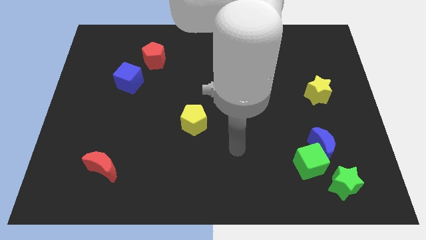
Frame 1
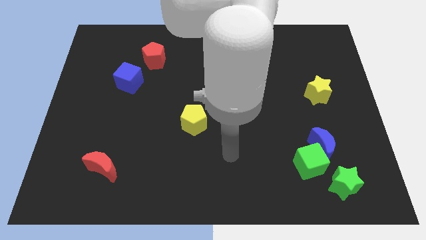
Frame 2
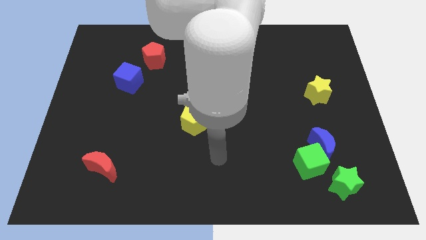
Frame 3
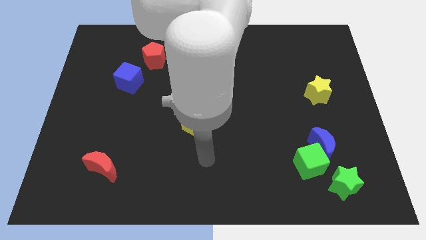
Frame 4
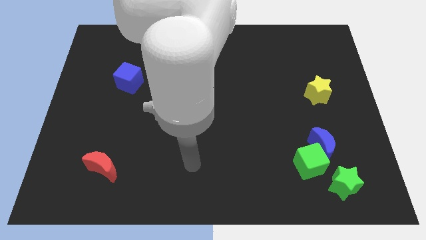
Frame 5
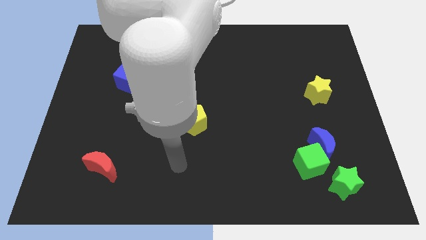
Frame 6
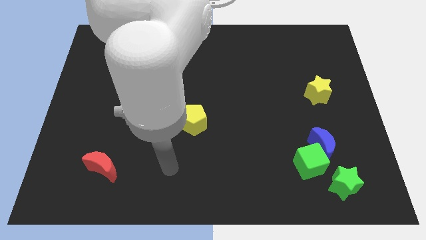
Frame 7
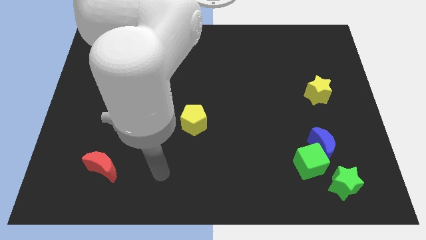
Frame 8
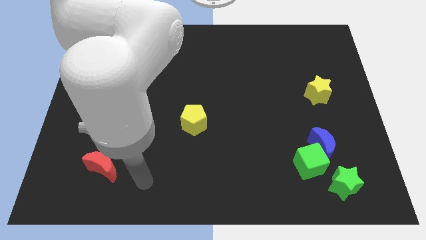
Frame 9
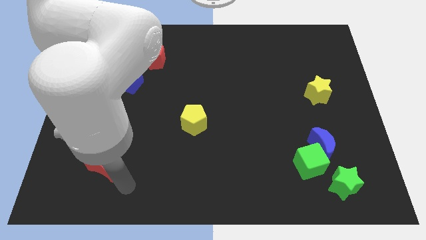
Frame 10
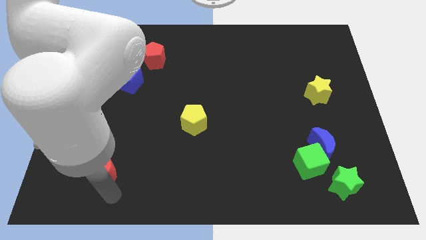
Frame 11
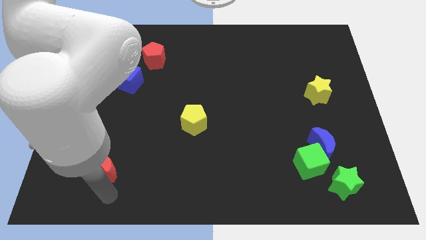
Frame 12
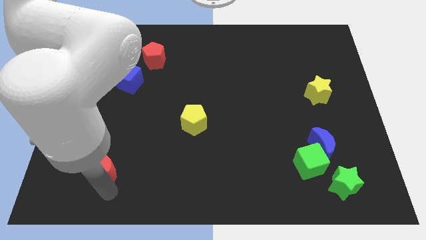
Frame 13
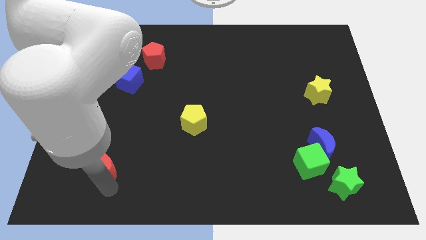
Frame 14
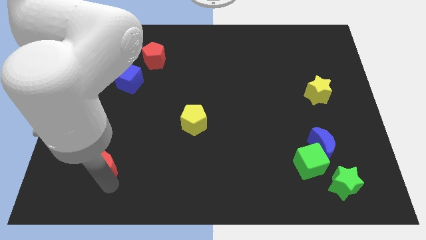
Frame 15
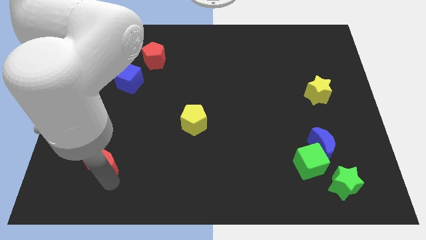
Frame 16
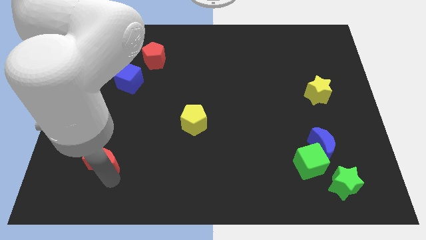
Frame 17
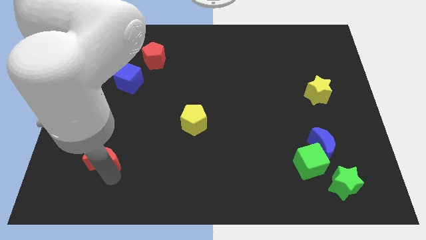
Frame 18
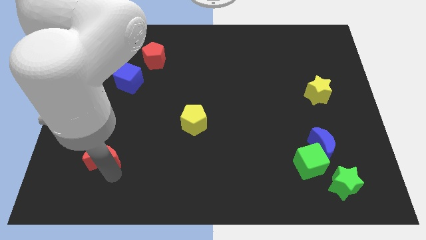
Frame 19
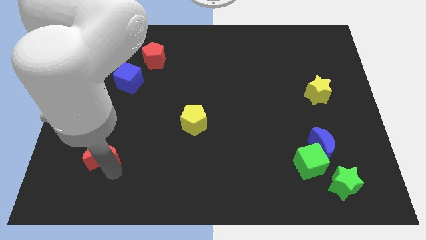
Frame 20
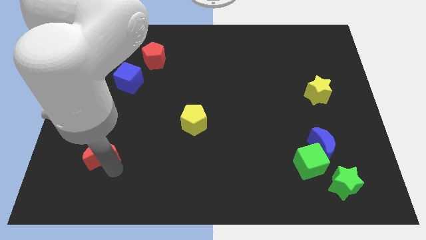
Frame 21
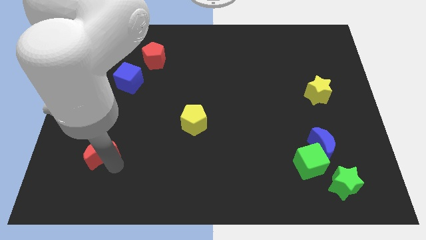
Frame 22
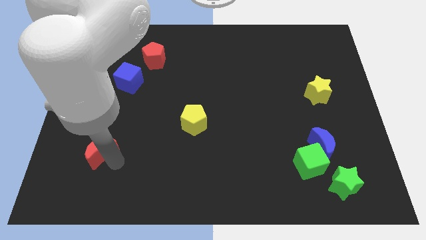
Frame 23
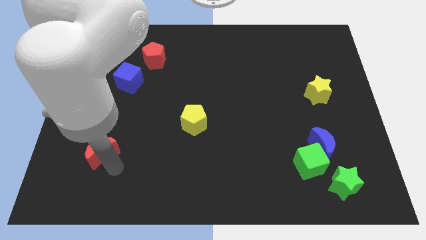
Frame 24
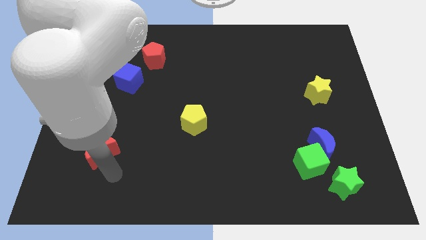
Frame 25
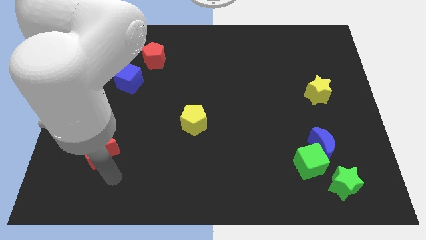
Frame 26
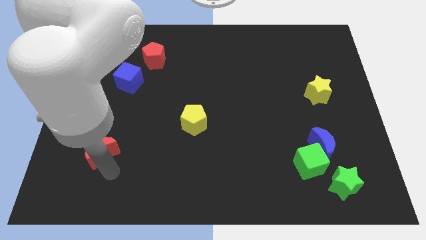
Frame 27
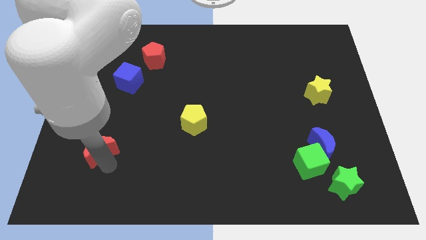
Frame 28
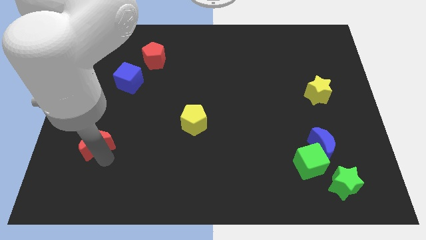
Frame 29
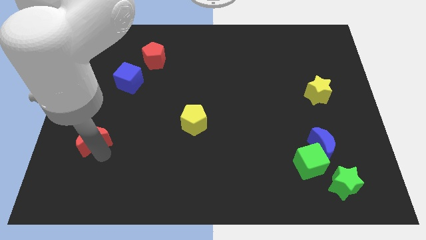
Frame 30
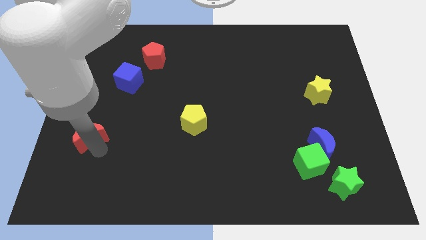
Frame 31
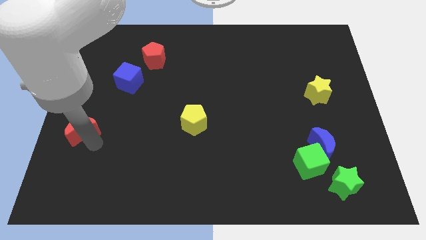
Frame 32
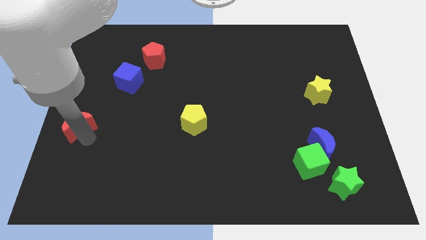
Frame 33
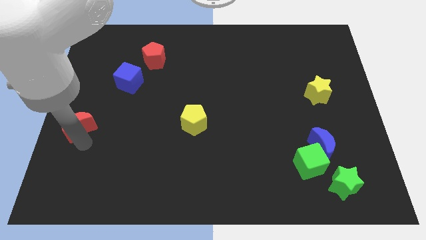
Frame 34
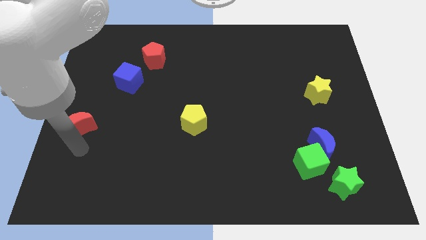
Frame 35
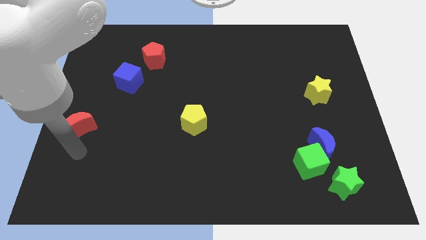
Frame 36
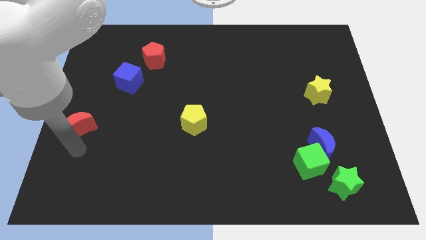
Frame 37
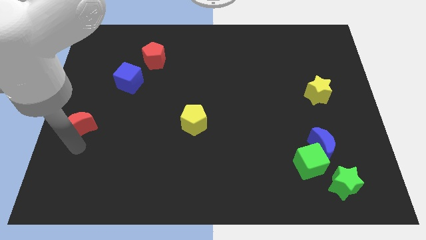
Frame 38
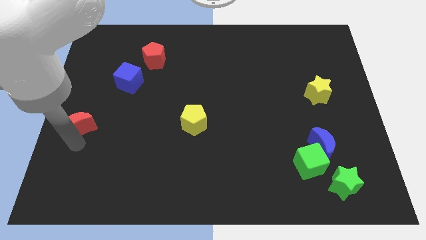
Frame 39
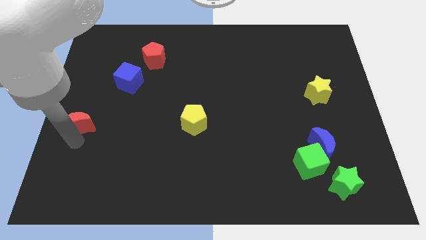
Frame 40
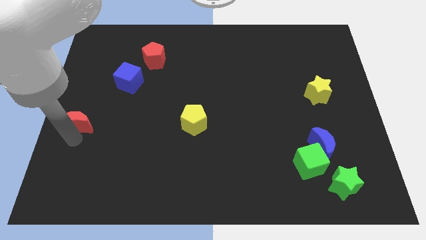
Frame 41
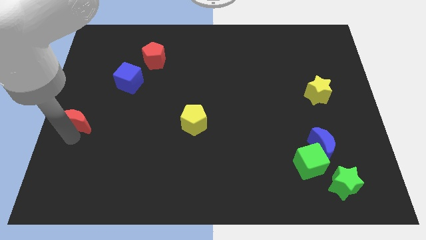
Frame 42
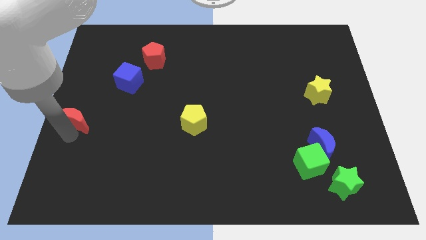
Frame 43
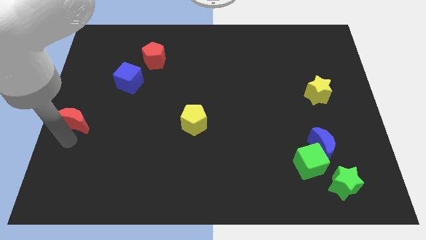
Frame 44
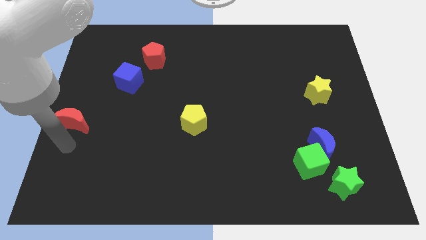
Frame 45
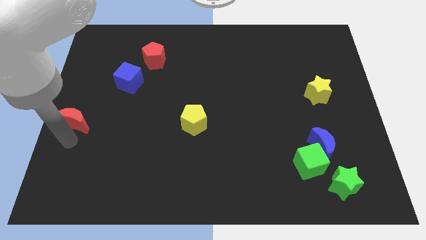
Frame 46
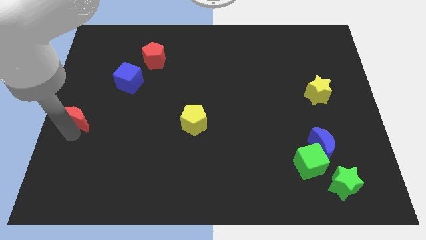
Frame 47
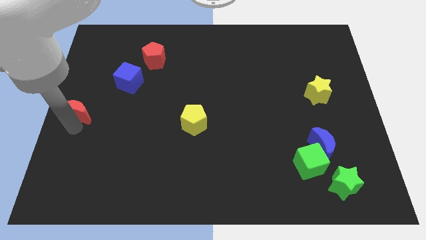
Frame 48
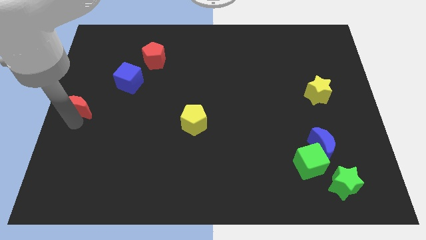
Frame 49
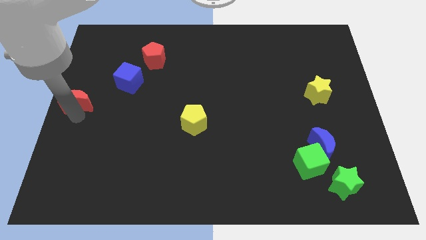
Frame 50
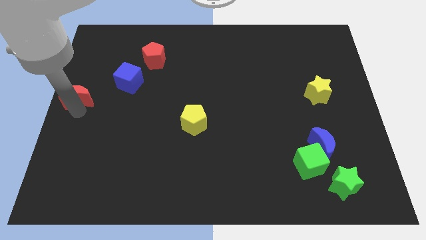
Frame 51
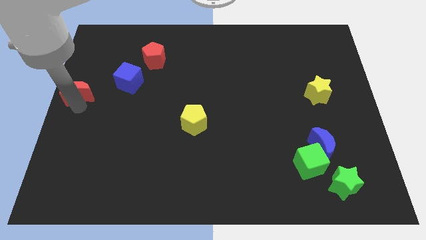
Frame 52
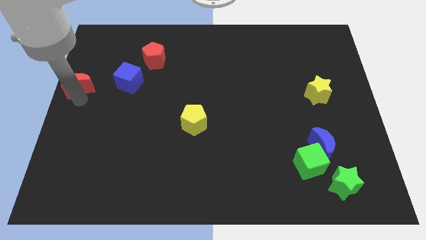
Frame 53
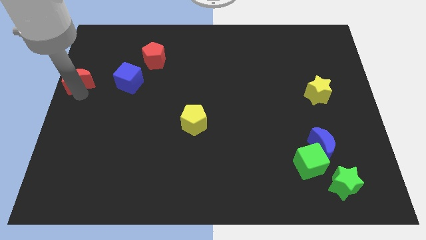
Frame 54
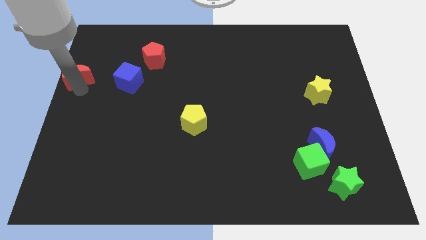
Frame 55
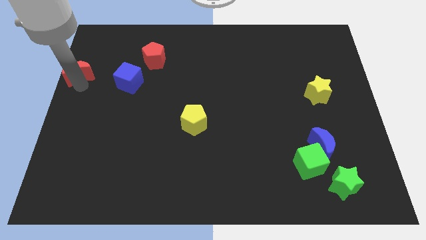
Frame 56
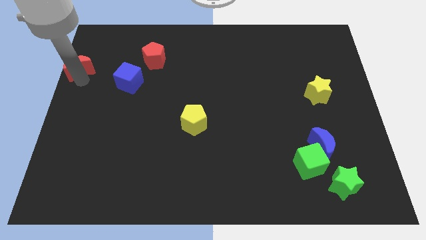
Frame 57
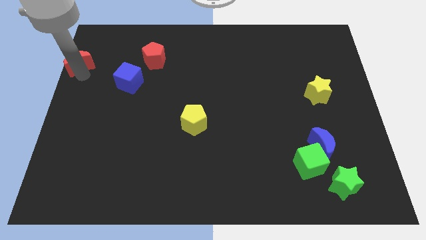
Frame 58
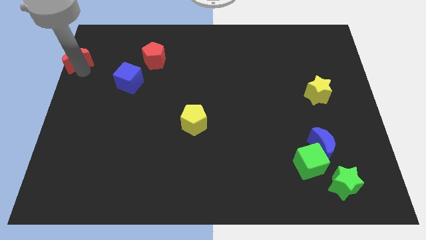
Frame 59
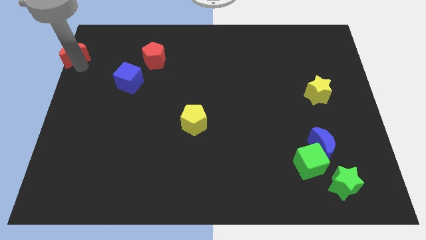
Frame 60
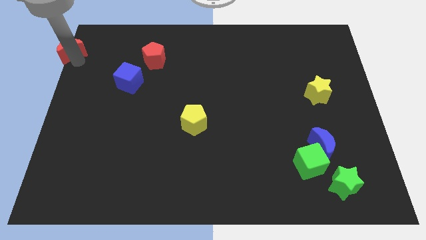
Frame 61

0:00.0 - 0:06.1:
put the red moon to the top left

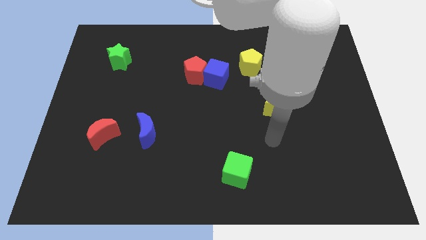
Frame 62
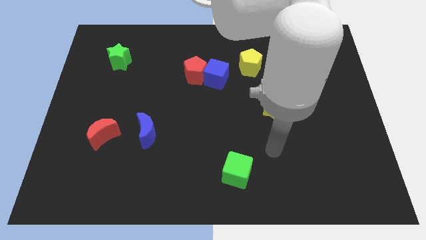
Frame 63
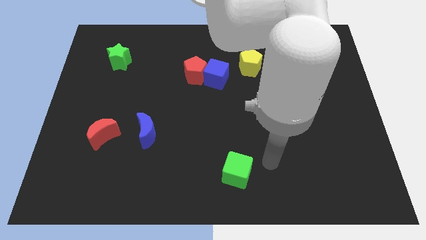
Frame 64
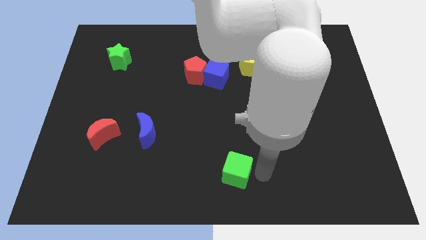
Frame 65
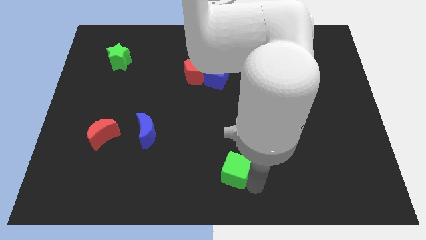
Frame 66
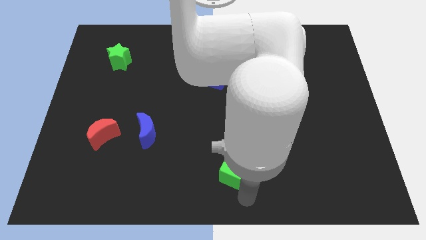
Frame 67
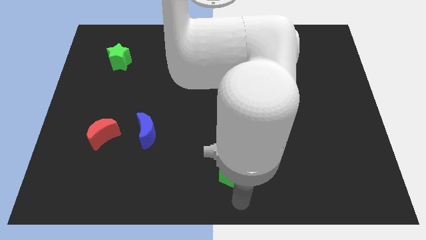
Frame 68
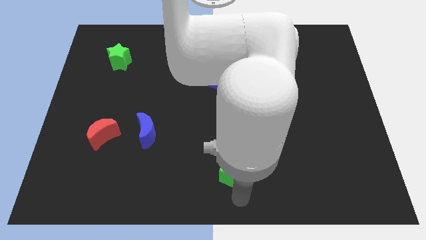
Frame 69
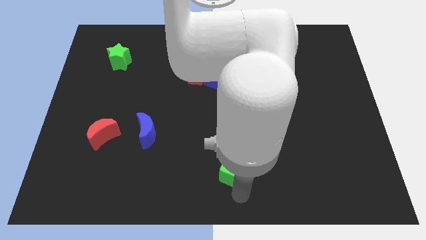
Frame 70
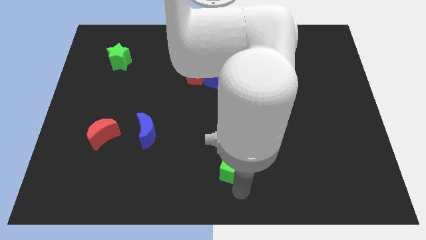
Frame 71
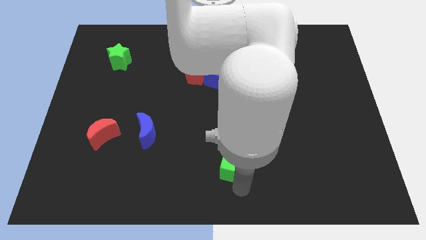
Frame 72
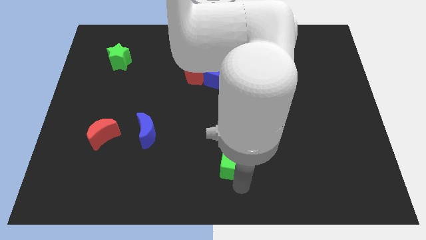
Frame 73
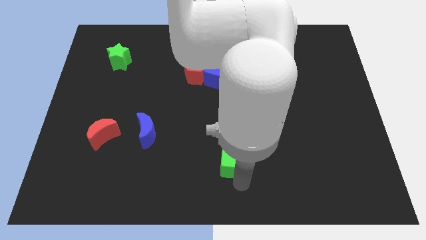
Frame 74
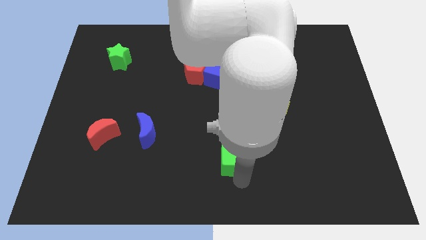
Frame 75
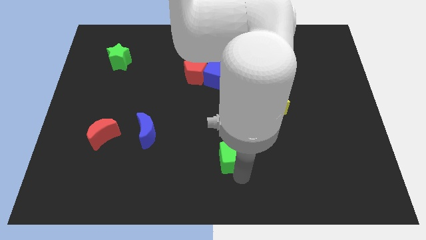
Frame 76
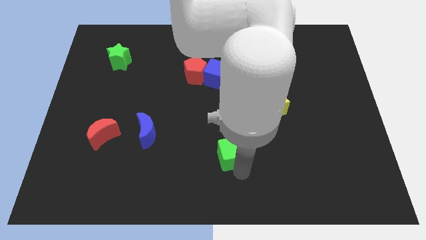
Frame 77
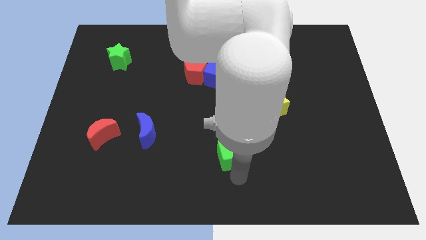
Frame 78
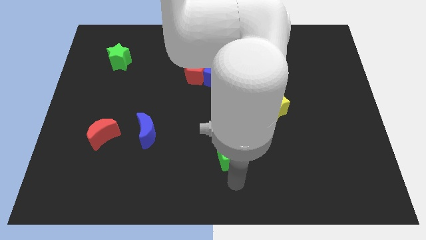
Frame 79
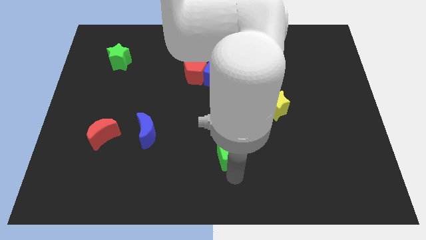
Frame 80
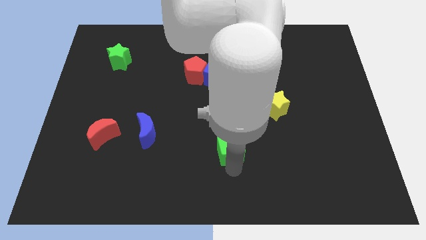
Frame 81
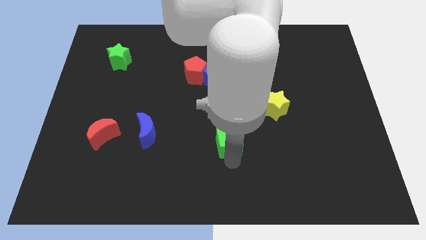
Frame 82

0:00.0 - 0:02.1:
push the green cube to the middle
